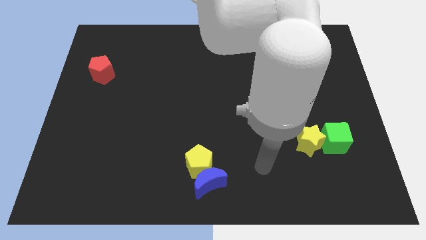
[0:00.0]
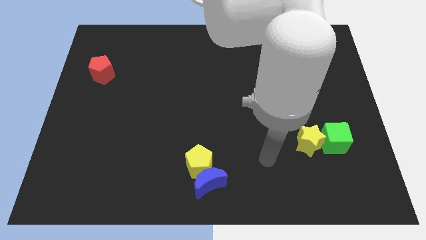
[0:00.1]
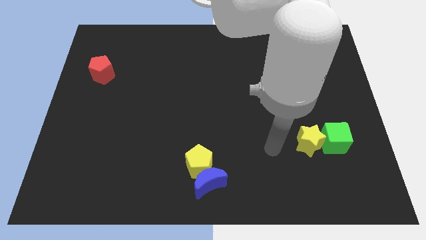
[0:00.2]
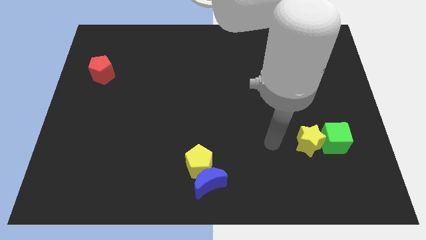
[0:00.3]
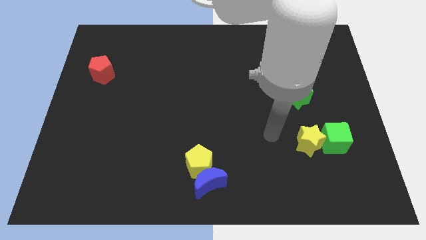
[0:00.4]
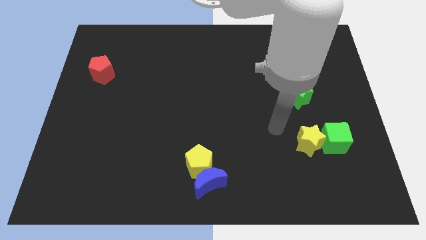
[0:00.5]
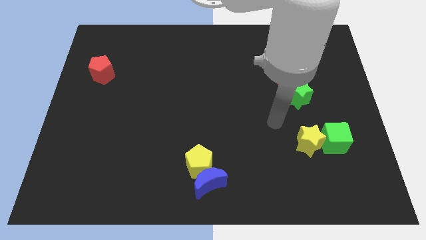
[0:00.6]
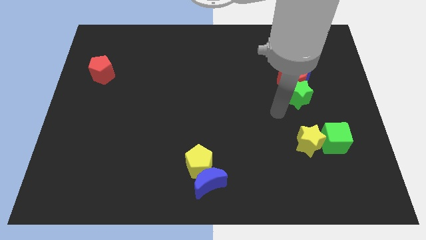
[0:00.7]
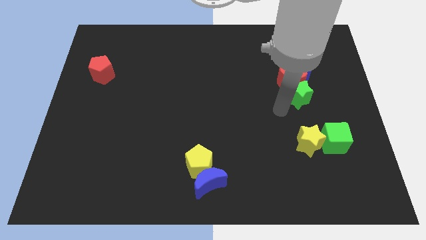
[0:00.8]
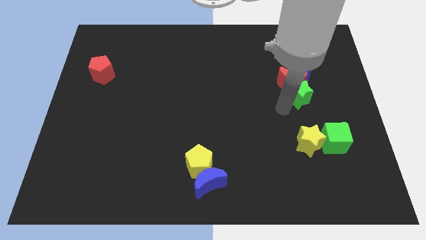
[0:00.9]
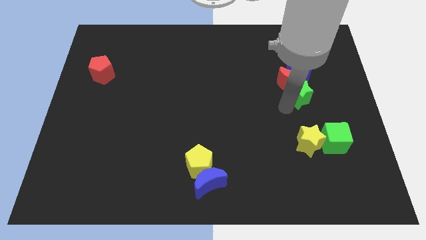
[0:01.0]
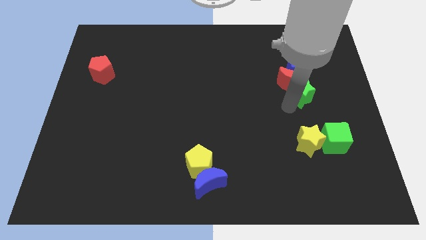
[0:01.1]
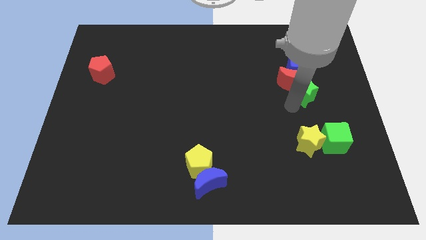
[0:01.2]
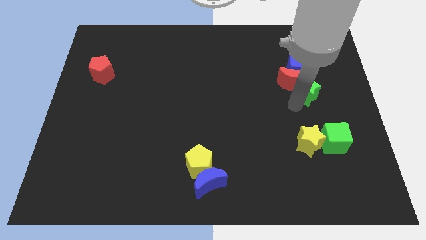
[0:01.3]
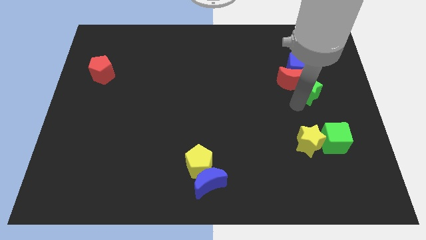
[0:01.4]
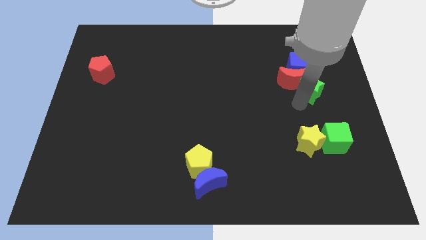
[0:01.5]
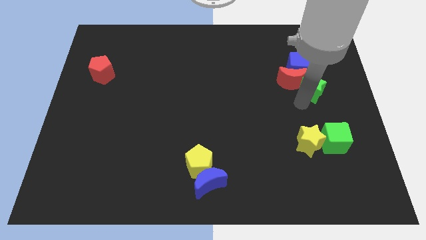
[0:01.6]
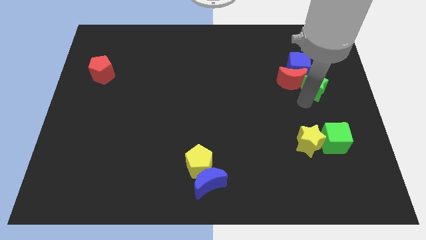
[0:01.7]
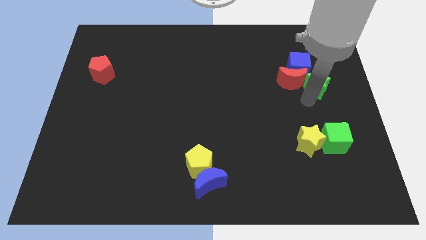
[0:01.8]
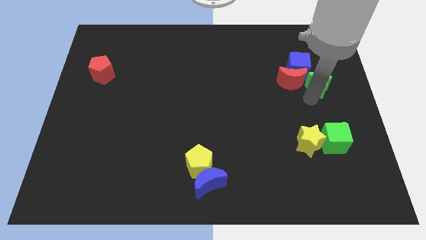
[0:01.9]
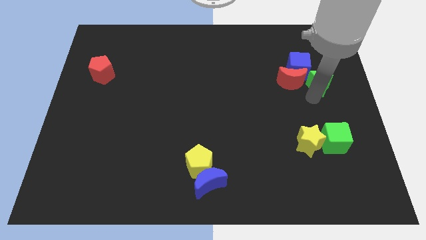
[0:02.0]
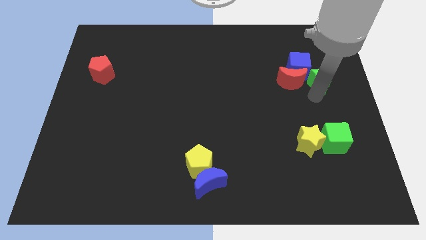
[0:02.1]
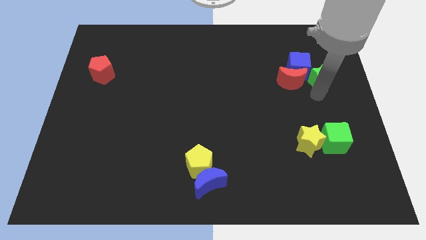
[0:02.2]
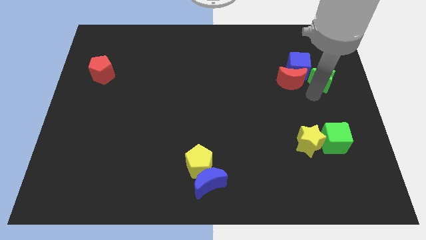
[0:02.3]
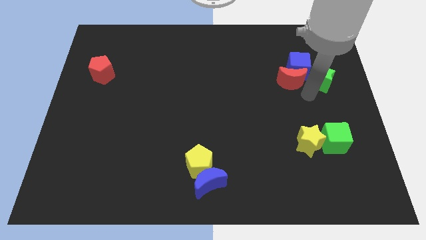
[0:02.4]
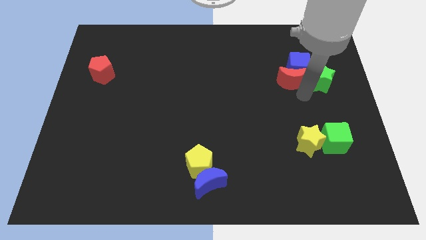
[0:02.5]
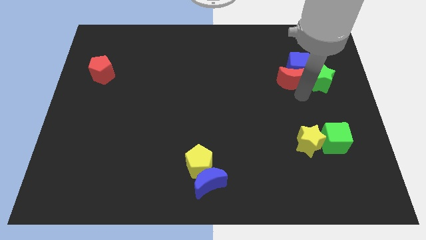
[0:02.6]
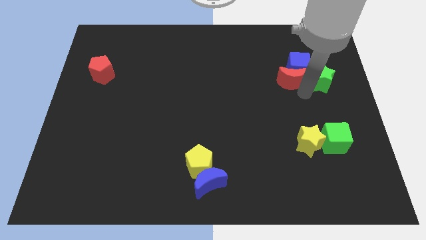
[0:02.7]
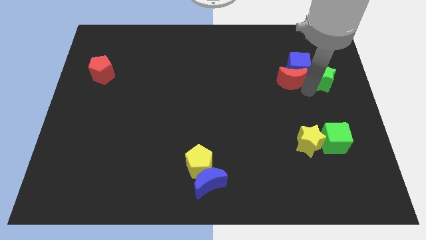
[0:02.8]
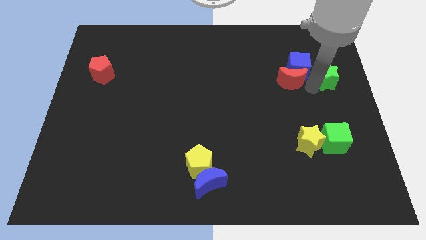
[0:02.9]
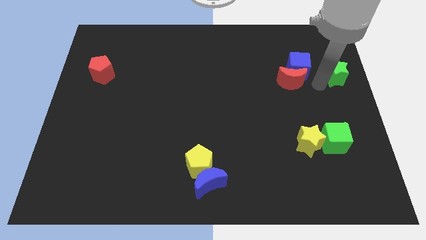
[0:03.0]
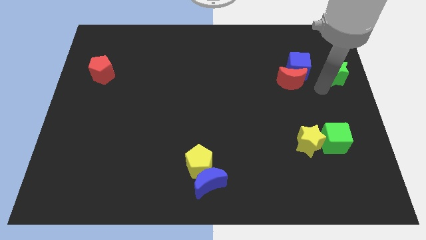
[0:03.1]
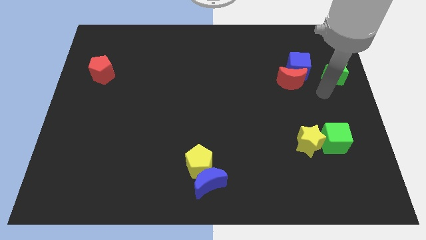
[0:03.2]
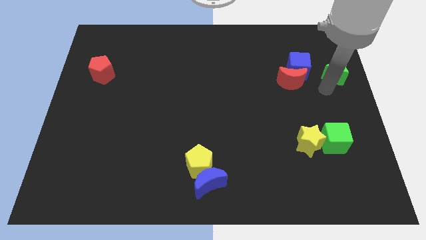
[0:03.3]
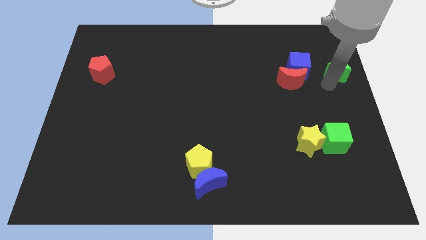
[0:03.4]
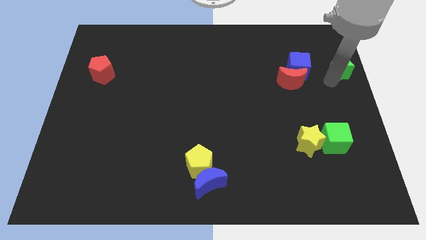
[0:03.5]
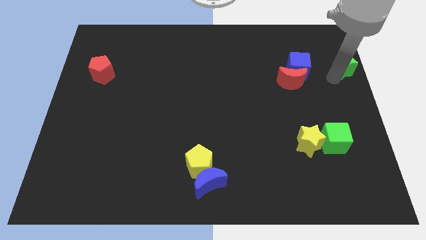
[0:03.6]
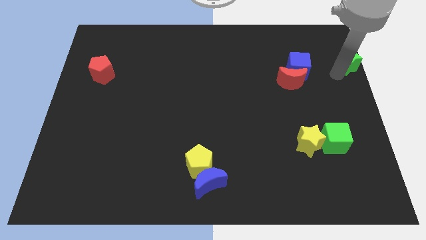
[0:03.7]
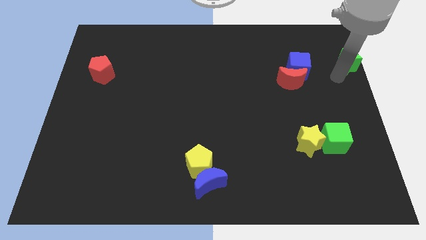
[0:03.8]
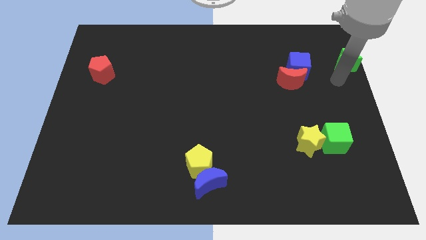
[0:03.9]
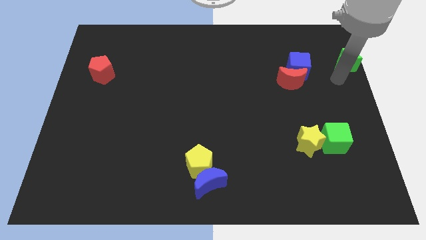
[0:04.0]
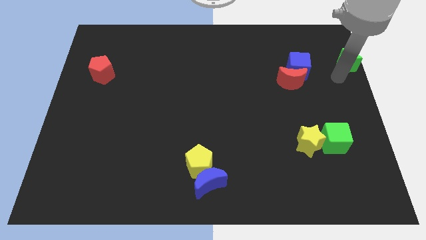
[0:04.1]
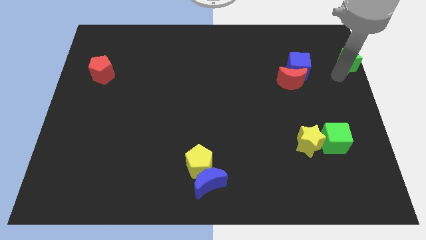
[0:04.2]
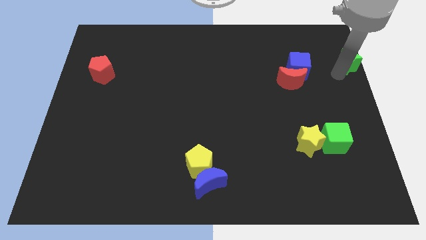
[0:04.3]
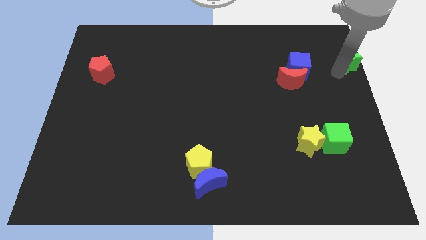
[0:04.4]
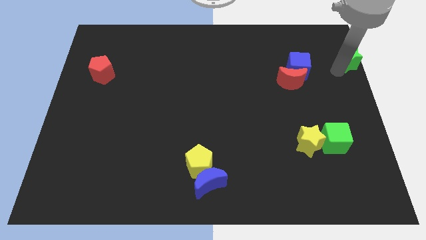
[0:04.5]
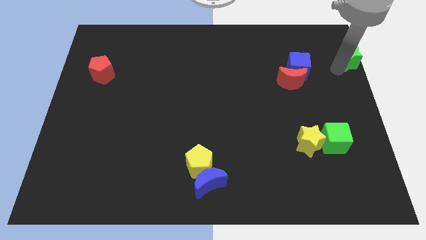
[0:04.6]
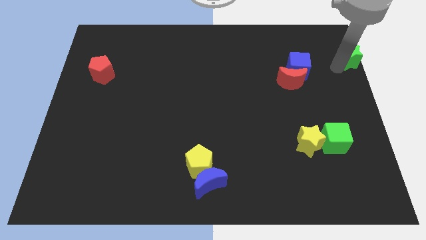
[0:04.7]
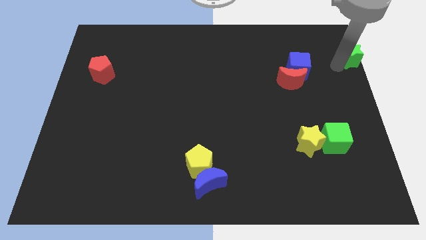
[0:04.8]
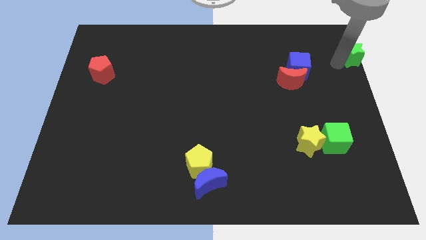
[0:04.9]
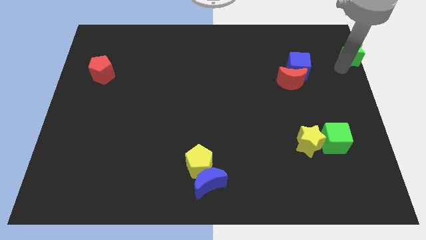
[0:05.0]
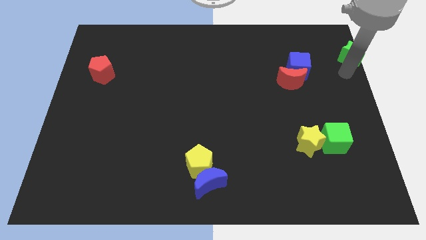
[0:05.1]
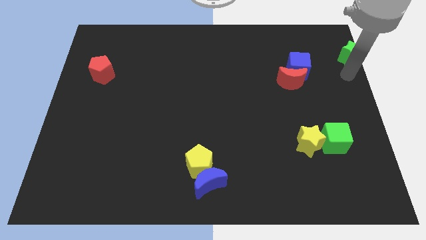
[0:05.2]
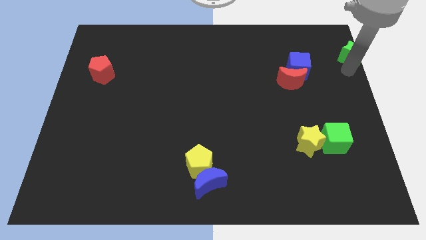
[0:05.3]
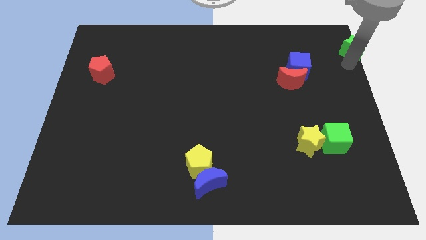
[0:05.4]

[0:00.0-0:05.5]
slide the green star to the upper right corner

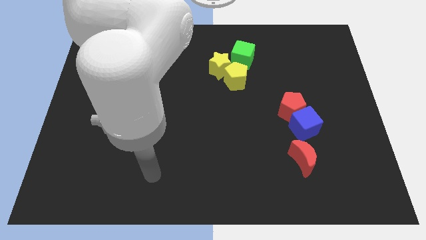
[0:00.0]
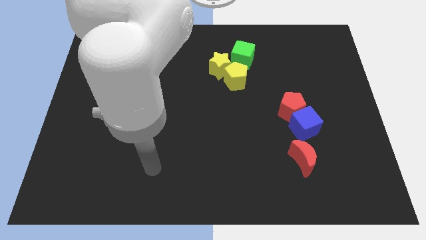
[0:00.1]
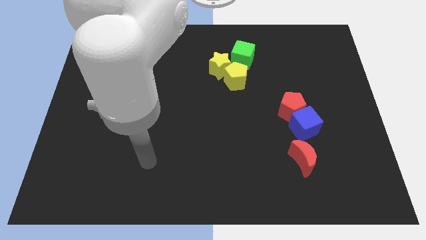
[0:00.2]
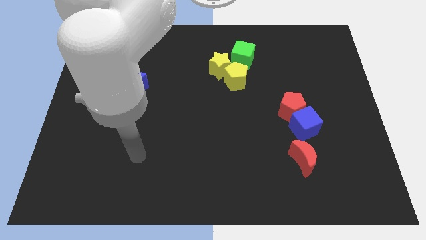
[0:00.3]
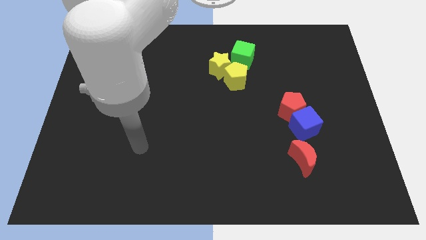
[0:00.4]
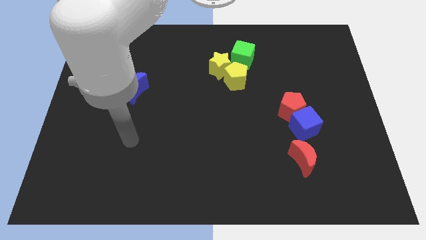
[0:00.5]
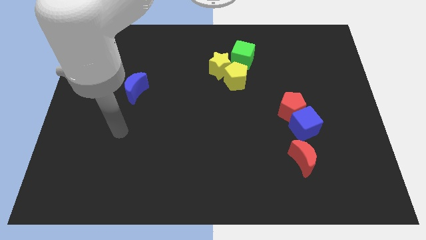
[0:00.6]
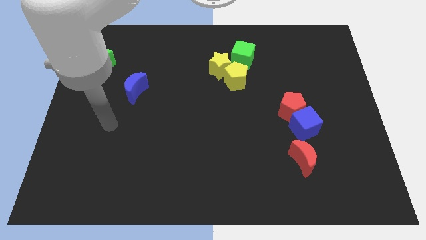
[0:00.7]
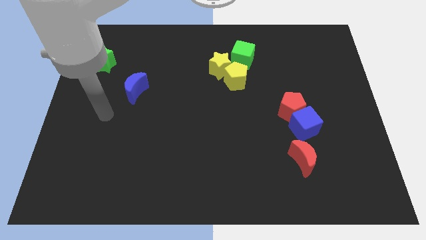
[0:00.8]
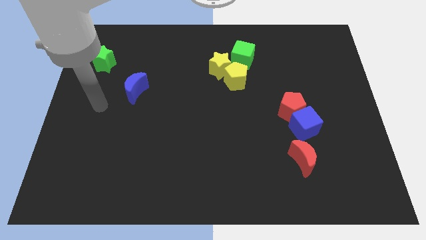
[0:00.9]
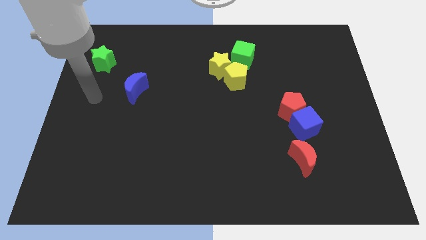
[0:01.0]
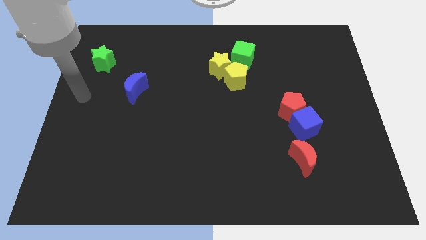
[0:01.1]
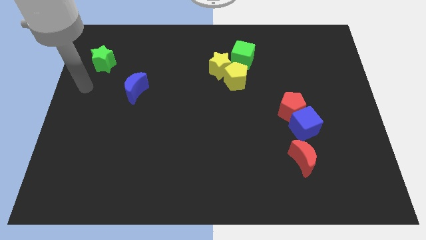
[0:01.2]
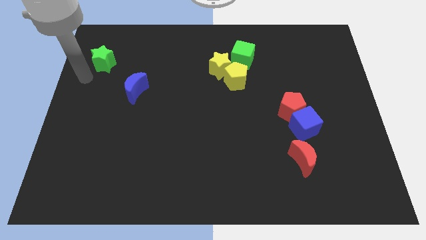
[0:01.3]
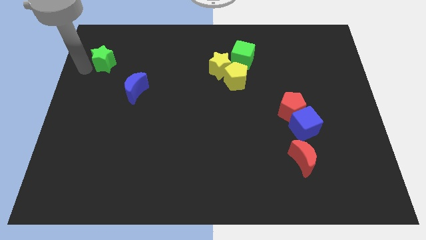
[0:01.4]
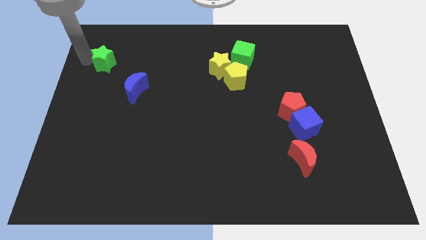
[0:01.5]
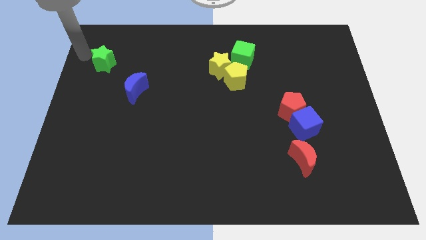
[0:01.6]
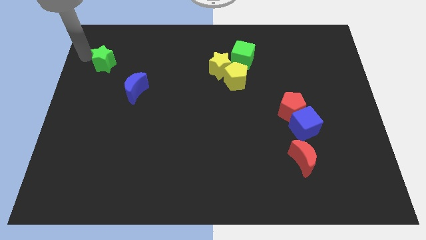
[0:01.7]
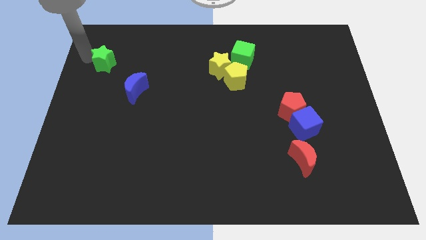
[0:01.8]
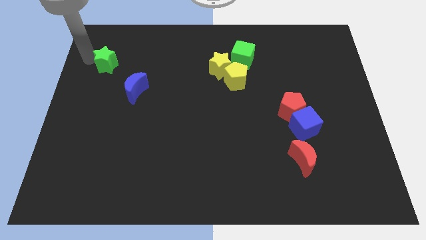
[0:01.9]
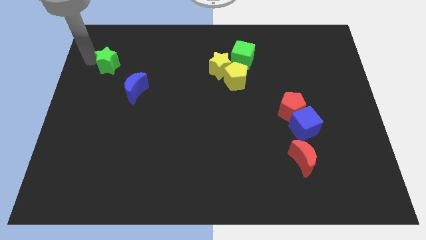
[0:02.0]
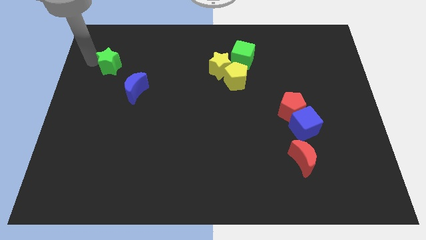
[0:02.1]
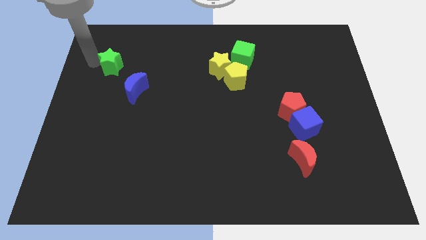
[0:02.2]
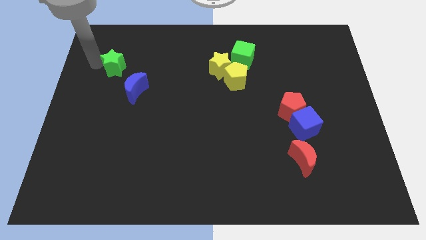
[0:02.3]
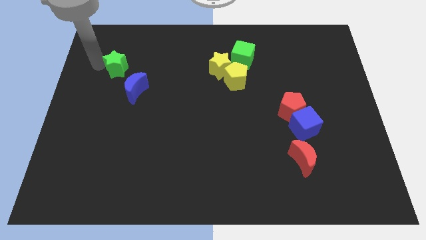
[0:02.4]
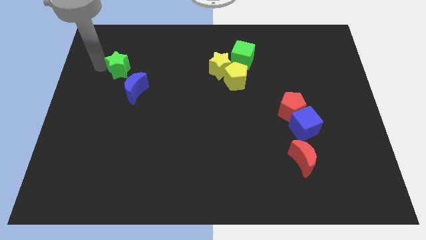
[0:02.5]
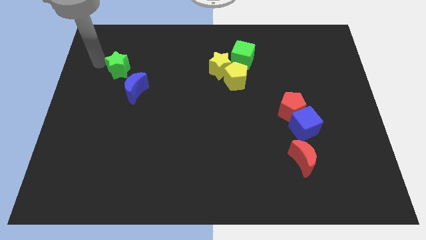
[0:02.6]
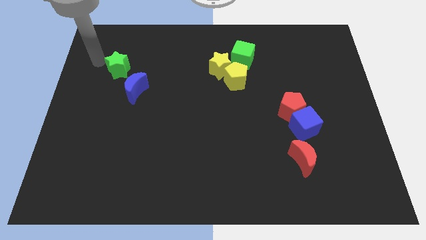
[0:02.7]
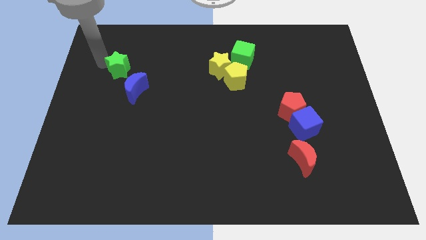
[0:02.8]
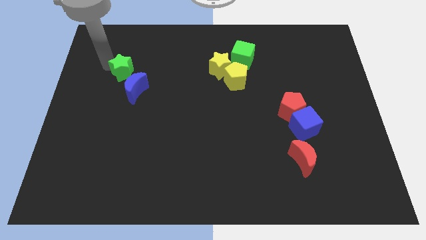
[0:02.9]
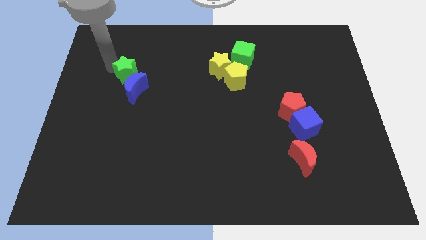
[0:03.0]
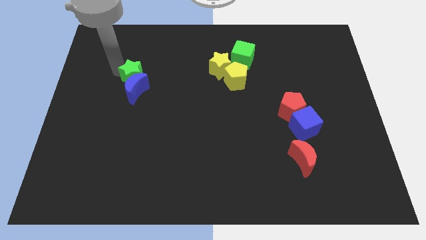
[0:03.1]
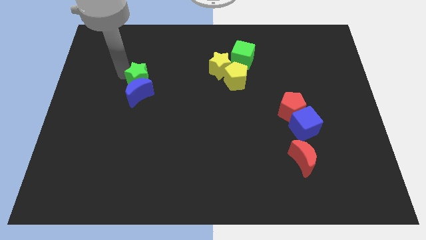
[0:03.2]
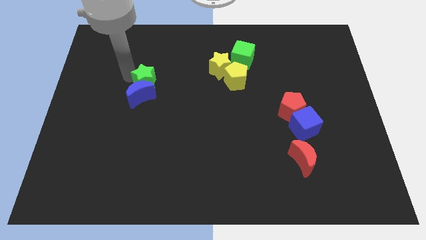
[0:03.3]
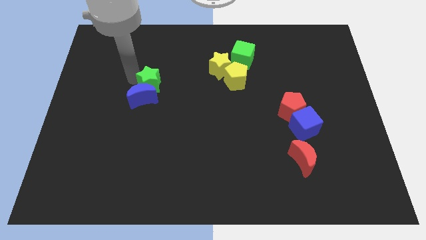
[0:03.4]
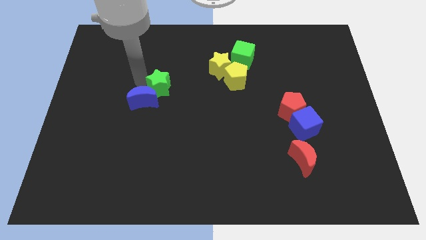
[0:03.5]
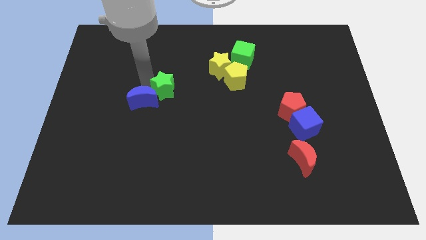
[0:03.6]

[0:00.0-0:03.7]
move the green star to the center
